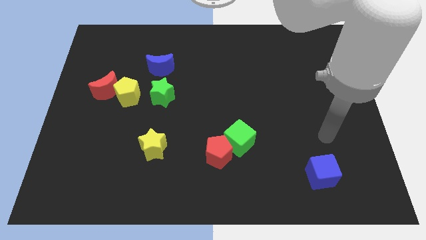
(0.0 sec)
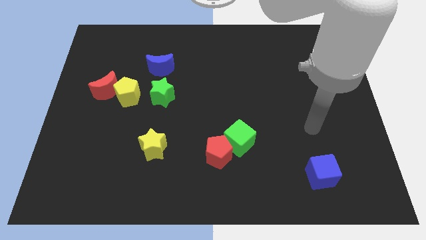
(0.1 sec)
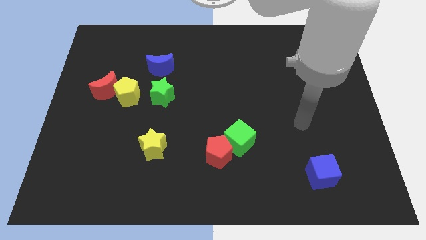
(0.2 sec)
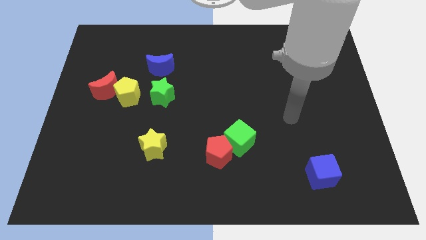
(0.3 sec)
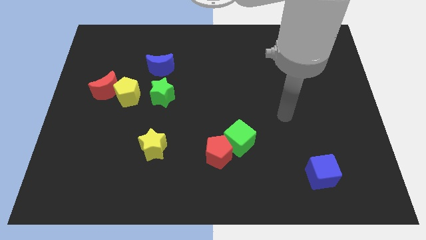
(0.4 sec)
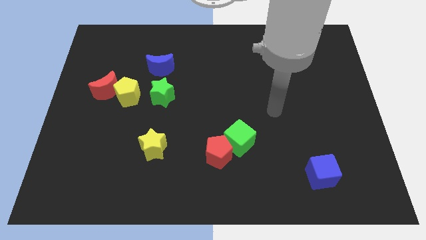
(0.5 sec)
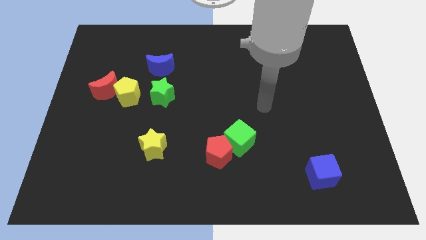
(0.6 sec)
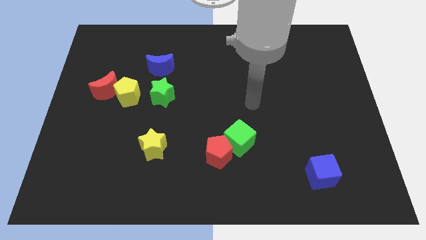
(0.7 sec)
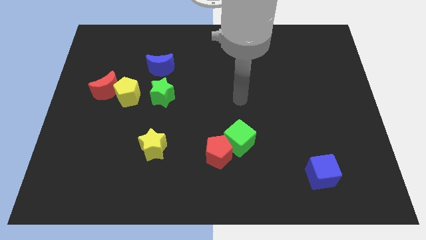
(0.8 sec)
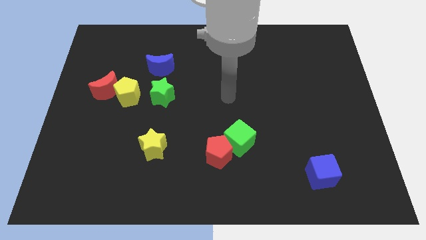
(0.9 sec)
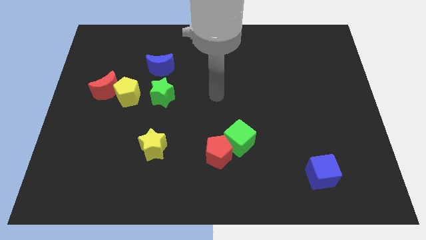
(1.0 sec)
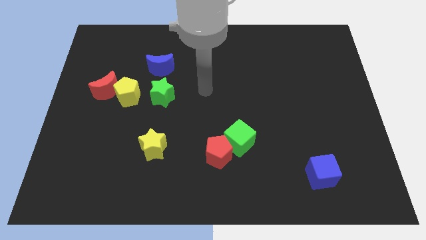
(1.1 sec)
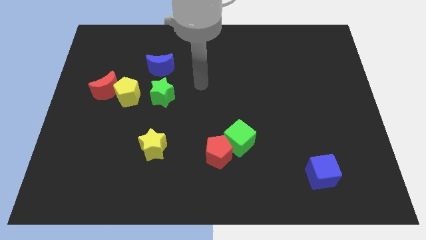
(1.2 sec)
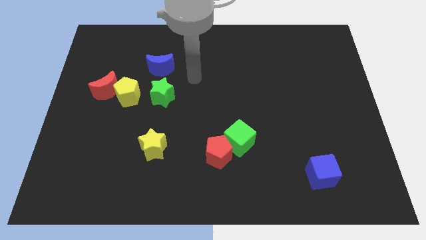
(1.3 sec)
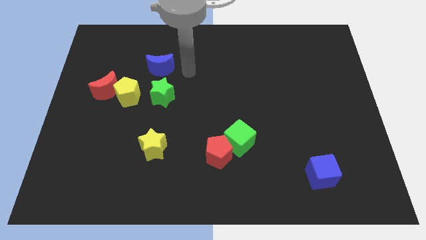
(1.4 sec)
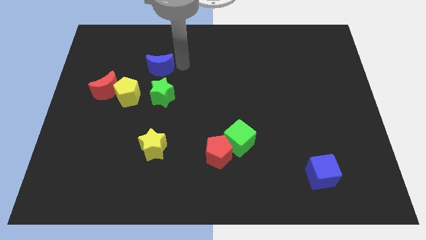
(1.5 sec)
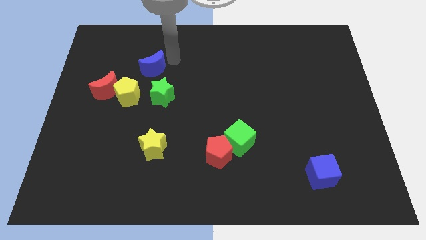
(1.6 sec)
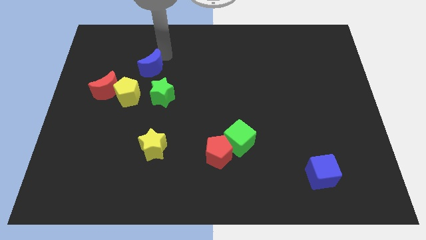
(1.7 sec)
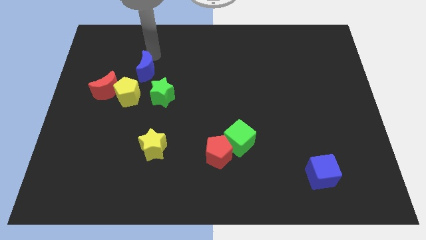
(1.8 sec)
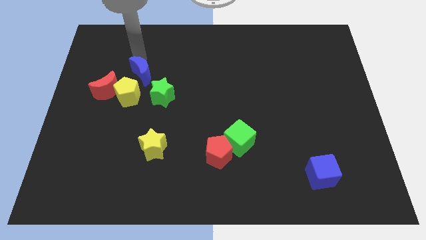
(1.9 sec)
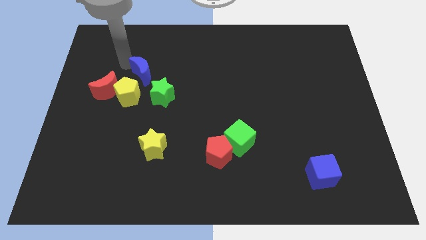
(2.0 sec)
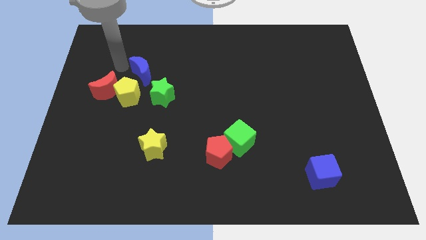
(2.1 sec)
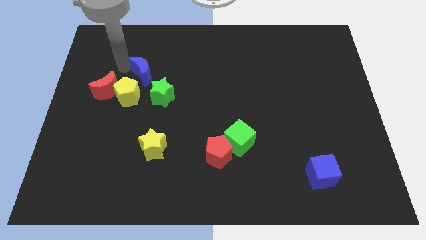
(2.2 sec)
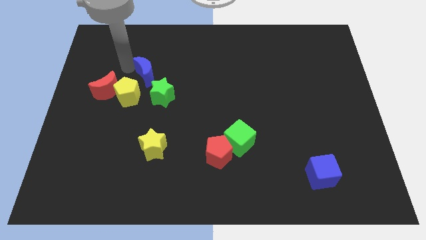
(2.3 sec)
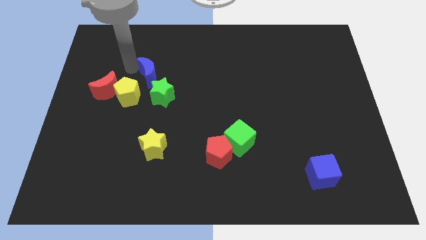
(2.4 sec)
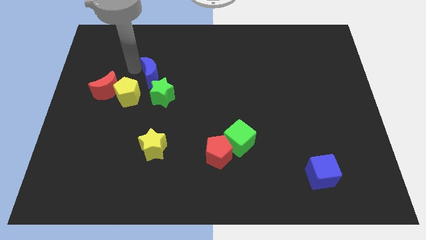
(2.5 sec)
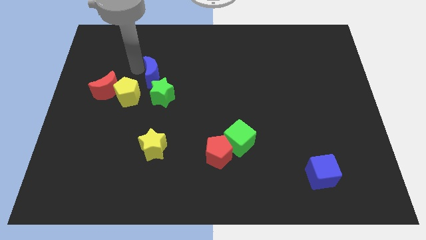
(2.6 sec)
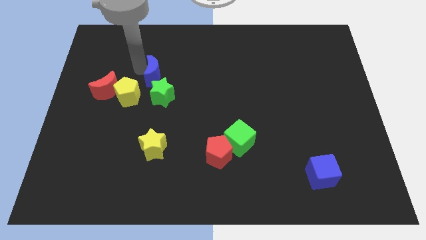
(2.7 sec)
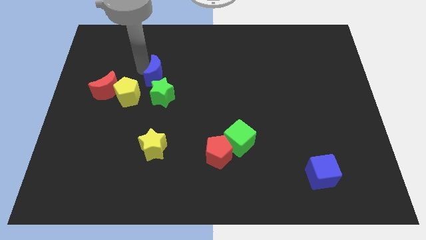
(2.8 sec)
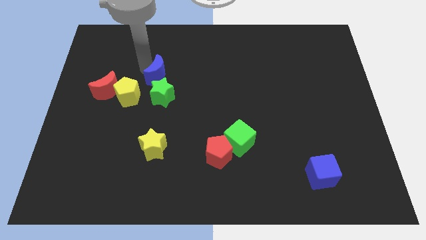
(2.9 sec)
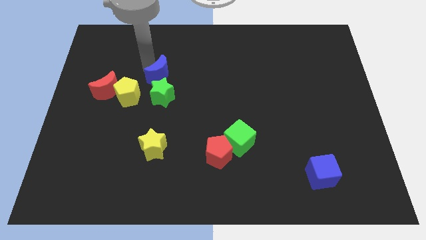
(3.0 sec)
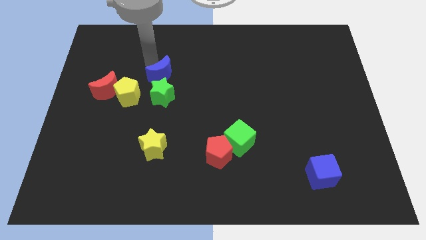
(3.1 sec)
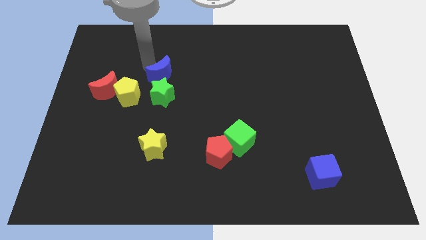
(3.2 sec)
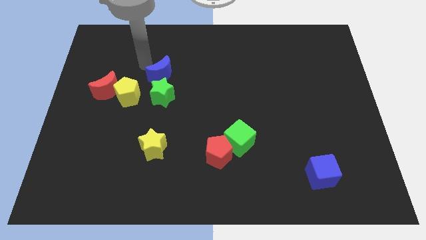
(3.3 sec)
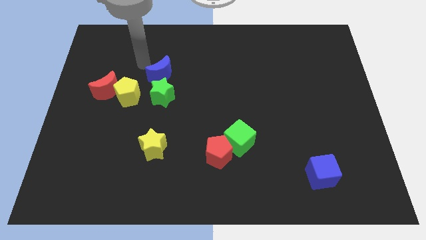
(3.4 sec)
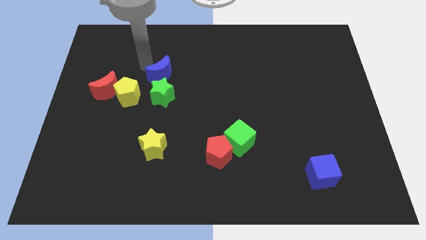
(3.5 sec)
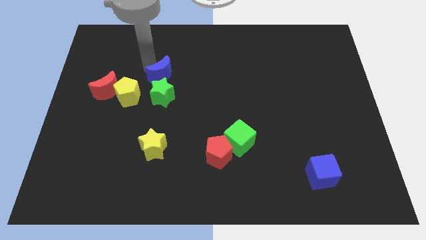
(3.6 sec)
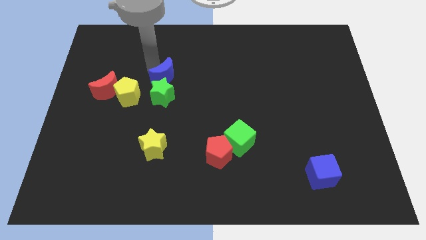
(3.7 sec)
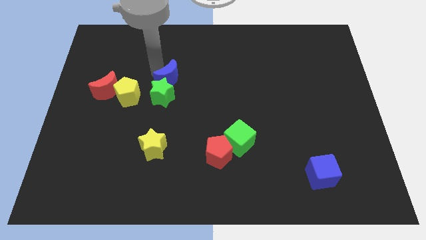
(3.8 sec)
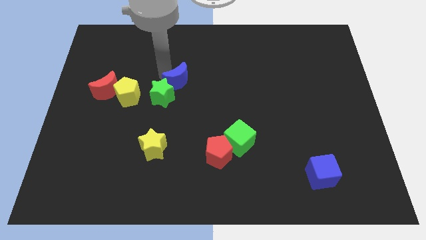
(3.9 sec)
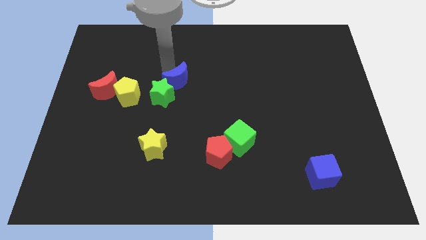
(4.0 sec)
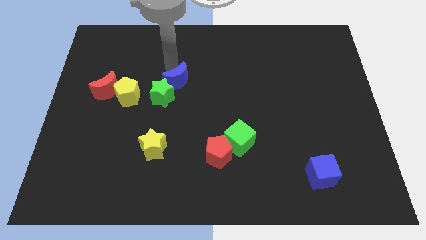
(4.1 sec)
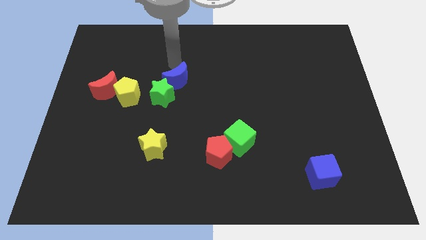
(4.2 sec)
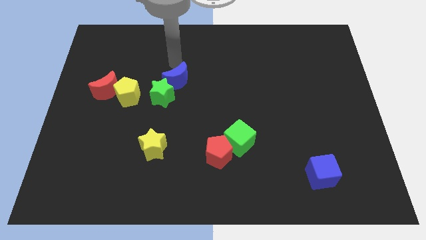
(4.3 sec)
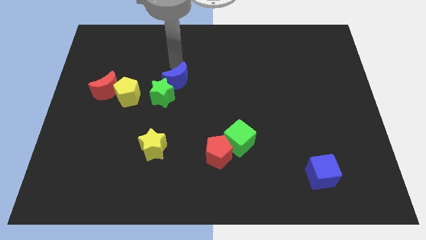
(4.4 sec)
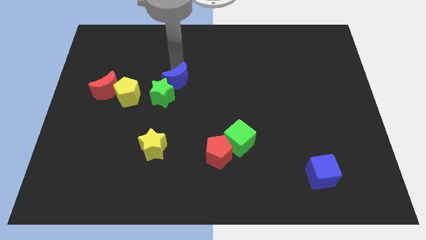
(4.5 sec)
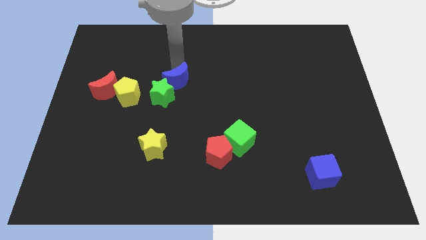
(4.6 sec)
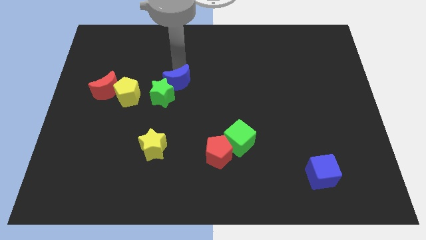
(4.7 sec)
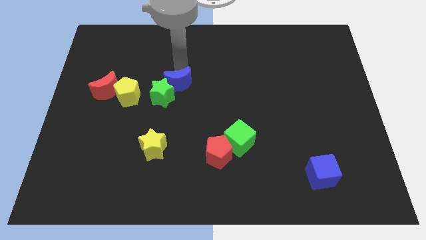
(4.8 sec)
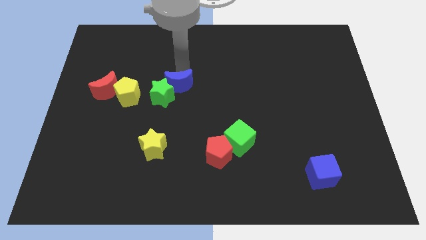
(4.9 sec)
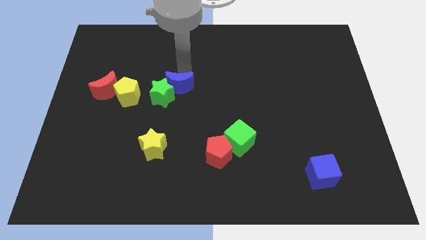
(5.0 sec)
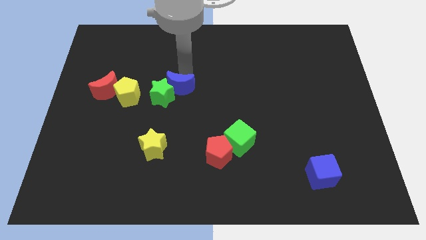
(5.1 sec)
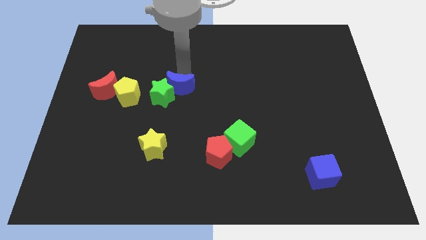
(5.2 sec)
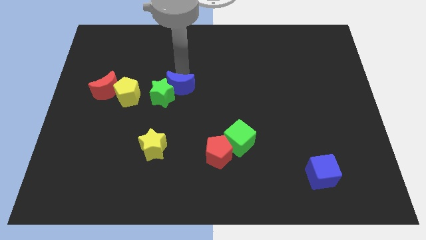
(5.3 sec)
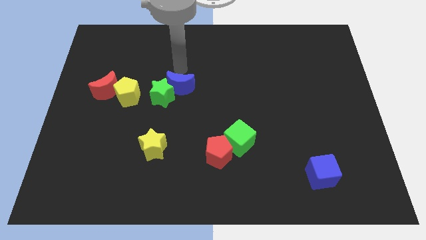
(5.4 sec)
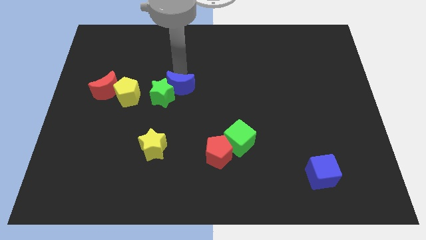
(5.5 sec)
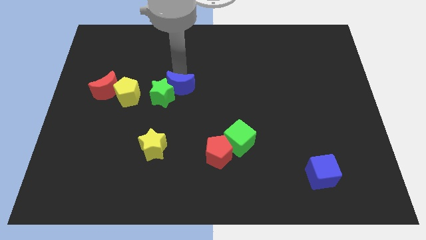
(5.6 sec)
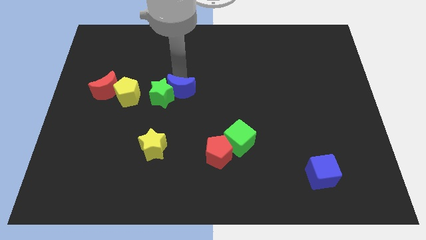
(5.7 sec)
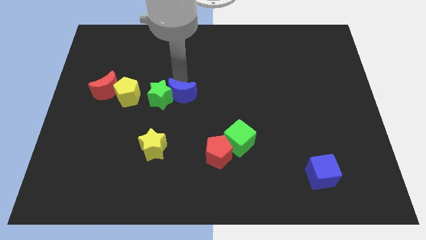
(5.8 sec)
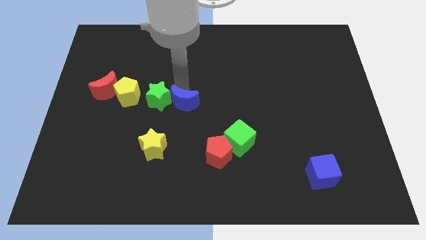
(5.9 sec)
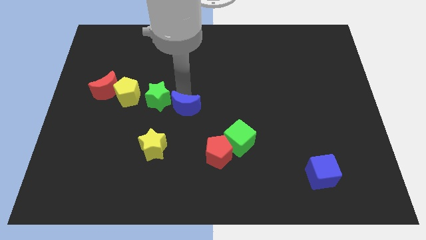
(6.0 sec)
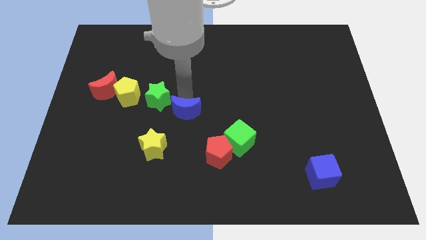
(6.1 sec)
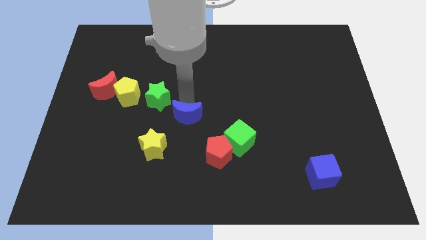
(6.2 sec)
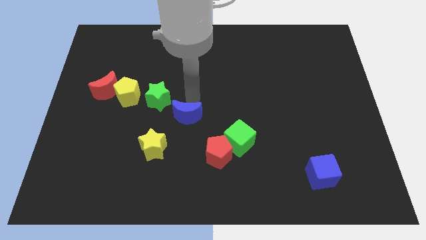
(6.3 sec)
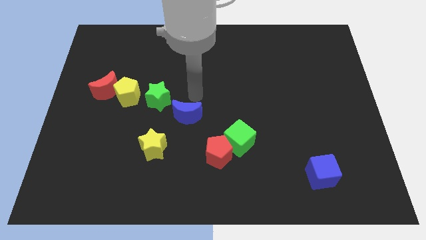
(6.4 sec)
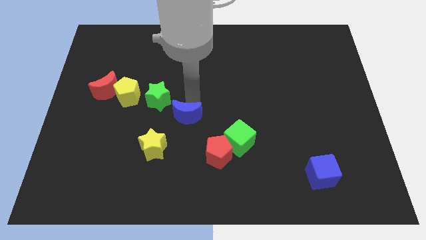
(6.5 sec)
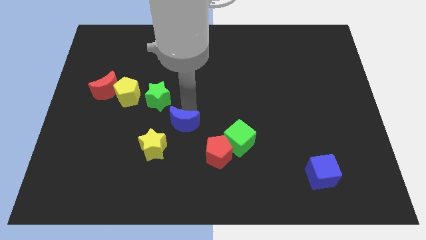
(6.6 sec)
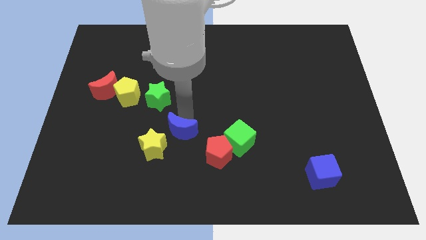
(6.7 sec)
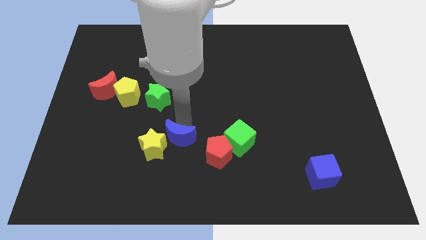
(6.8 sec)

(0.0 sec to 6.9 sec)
slide the blue moon left of the red pentagon
